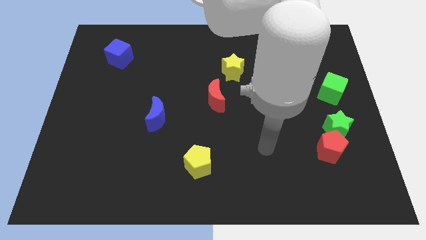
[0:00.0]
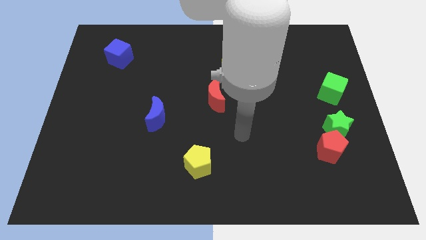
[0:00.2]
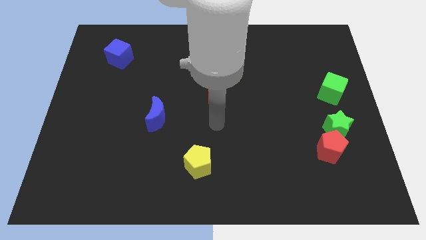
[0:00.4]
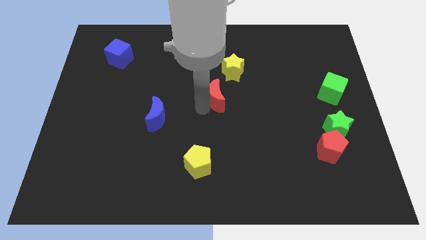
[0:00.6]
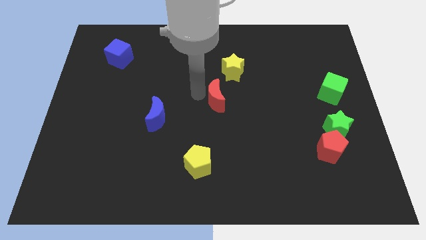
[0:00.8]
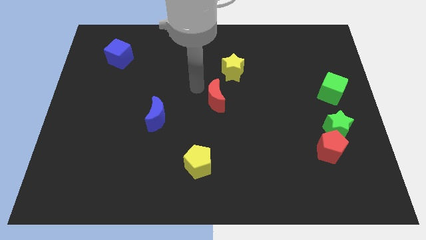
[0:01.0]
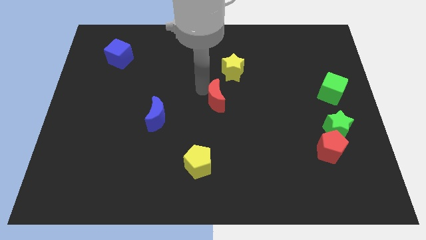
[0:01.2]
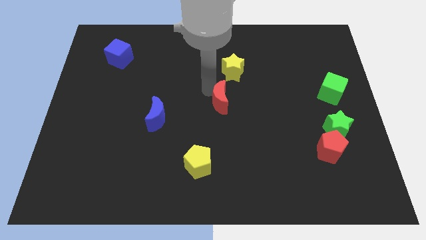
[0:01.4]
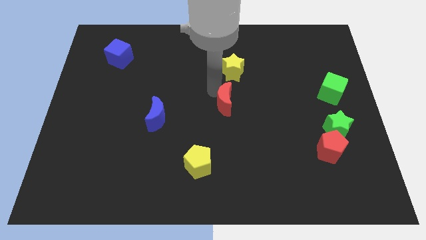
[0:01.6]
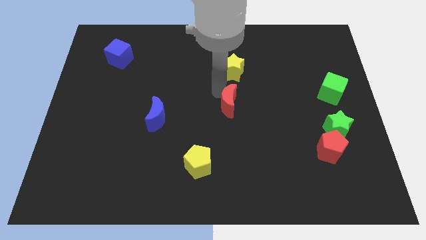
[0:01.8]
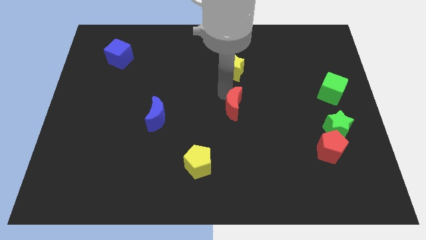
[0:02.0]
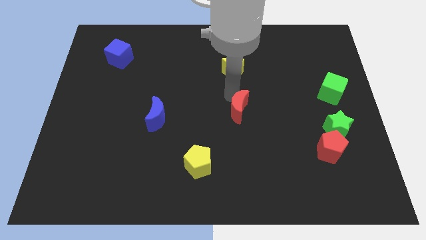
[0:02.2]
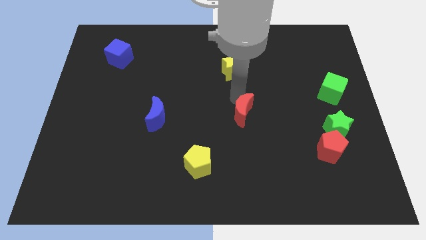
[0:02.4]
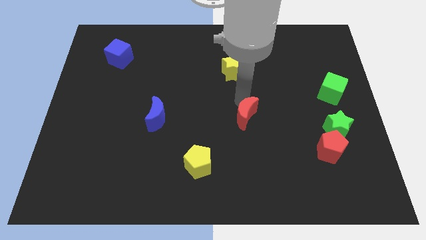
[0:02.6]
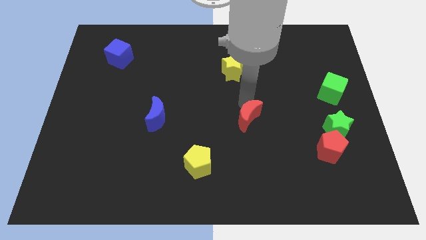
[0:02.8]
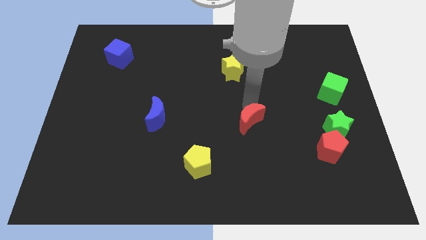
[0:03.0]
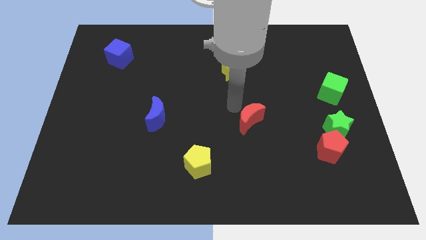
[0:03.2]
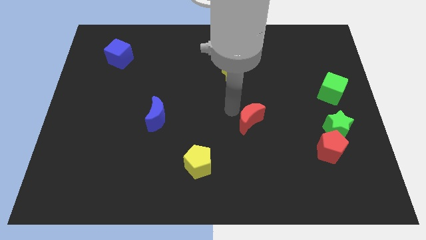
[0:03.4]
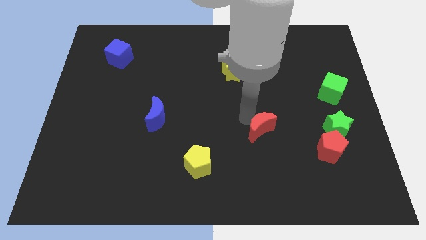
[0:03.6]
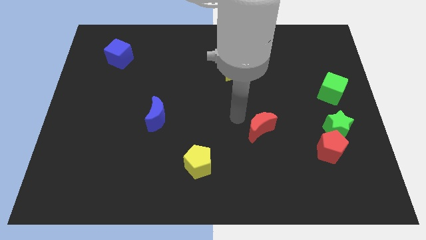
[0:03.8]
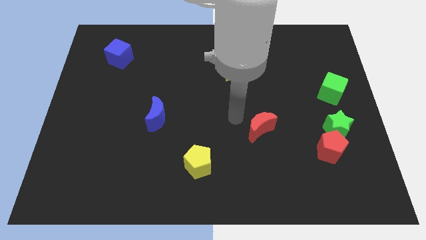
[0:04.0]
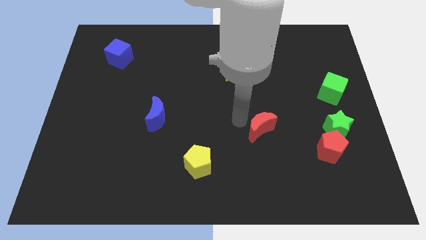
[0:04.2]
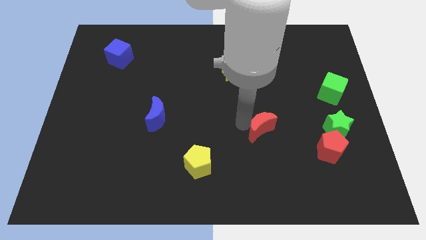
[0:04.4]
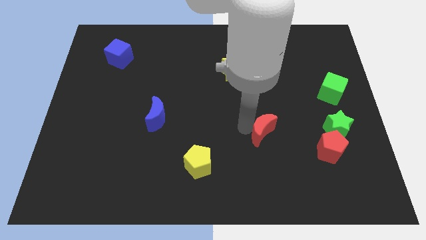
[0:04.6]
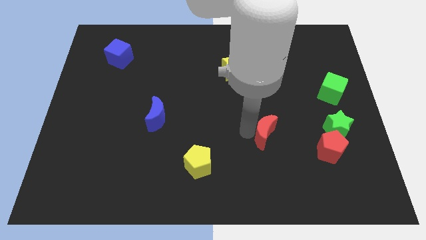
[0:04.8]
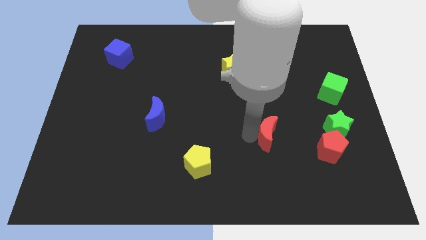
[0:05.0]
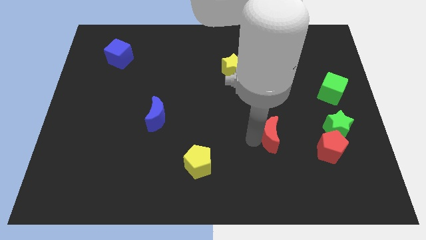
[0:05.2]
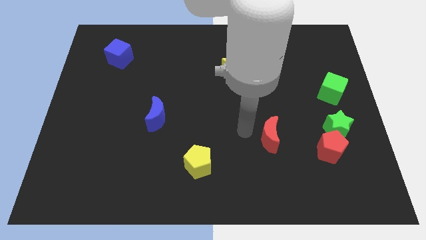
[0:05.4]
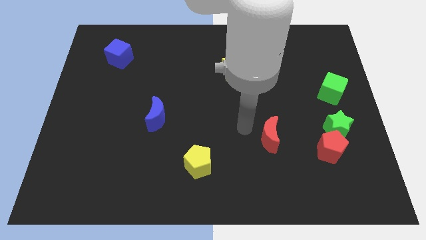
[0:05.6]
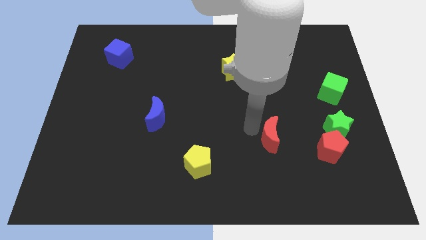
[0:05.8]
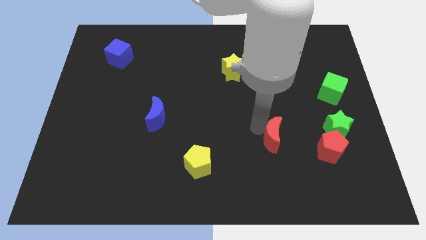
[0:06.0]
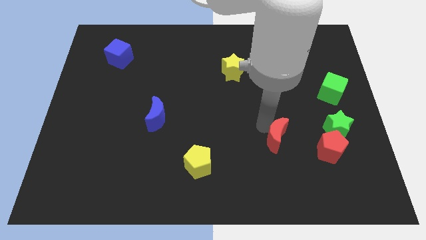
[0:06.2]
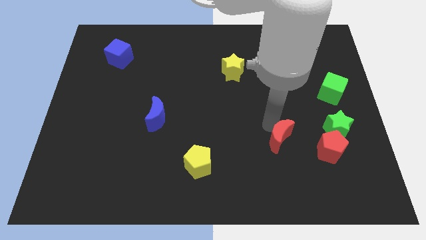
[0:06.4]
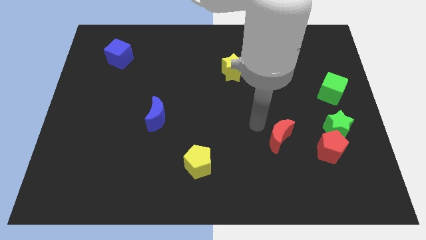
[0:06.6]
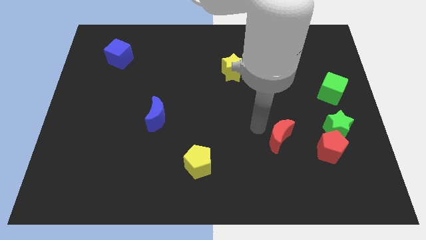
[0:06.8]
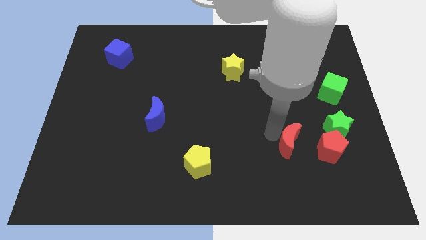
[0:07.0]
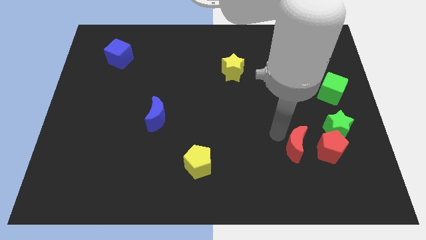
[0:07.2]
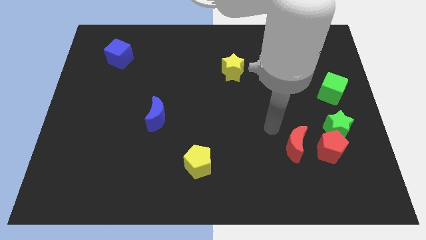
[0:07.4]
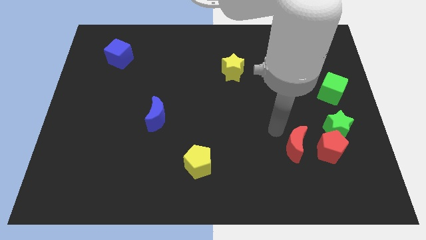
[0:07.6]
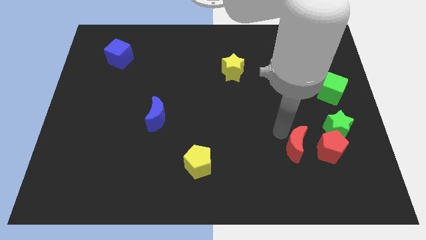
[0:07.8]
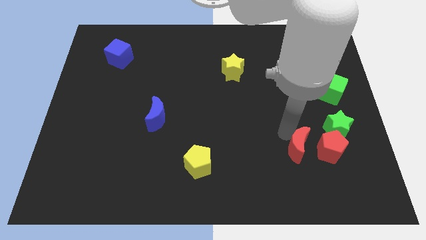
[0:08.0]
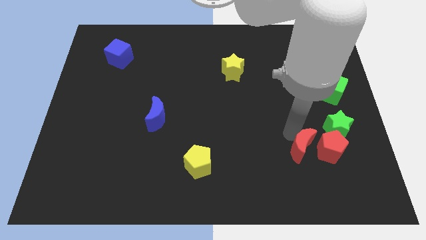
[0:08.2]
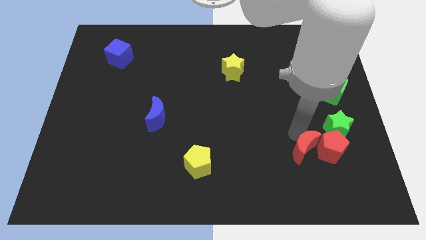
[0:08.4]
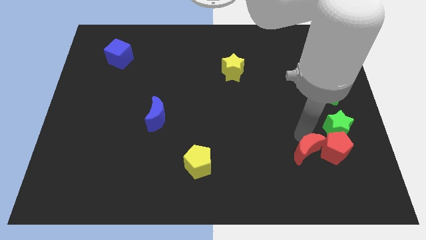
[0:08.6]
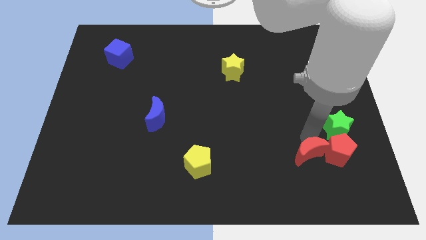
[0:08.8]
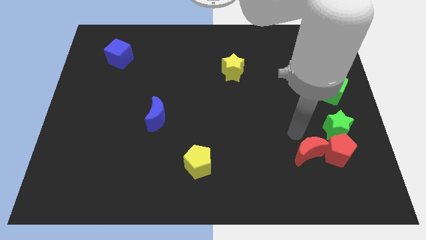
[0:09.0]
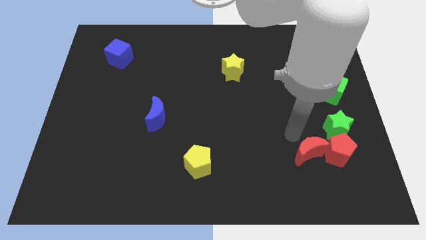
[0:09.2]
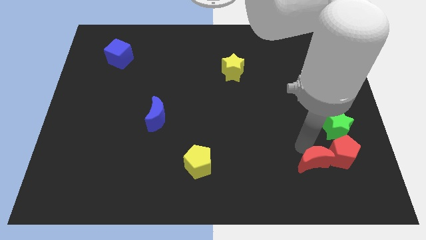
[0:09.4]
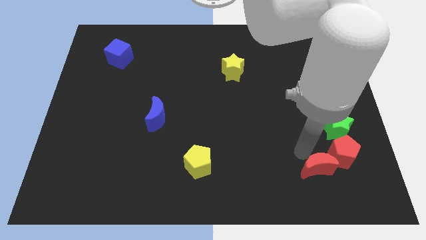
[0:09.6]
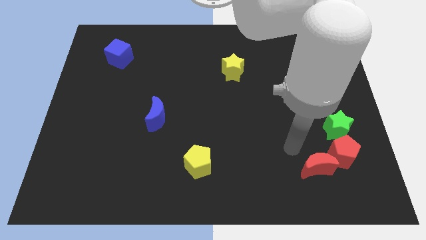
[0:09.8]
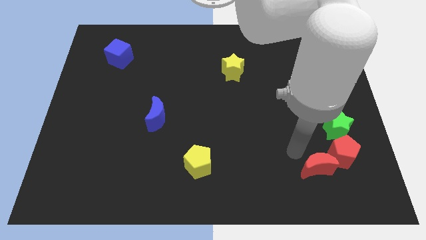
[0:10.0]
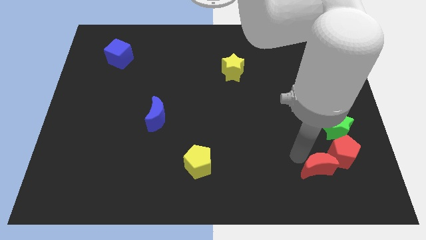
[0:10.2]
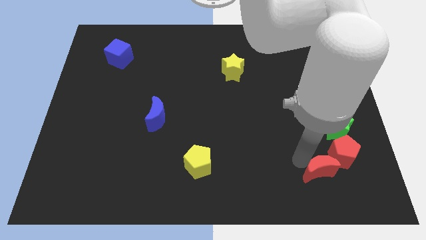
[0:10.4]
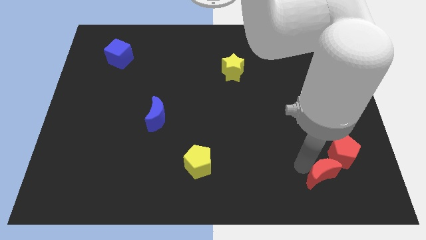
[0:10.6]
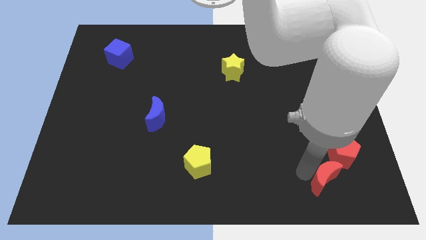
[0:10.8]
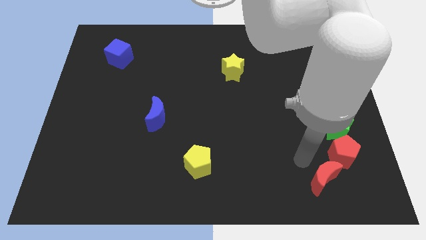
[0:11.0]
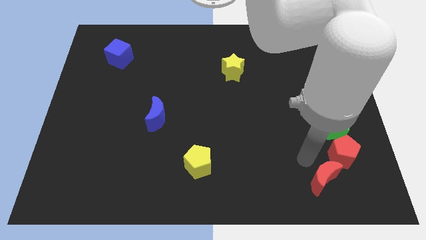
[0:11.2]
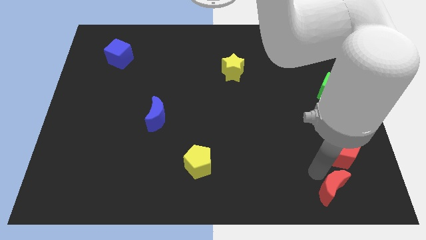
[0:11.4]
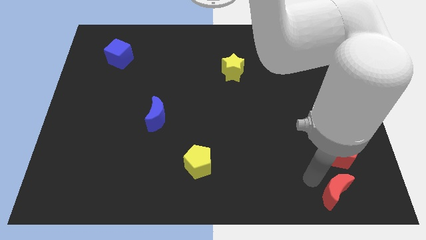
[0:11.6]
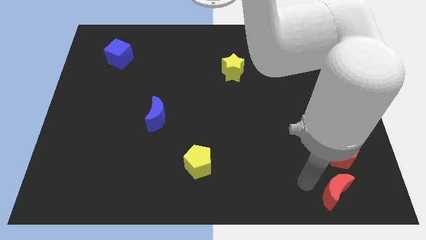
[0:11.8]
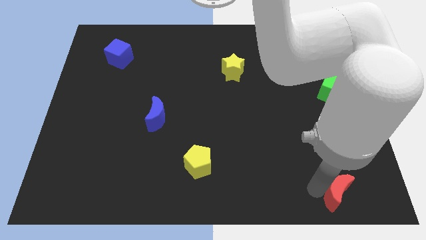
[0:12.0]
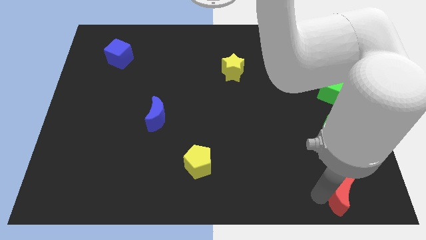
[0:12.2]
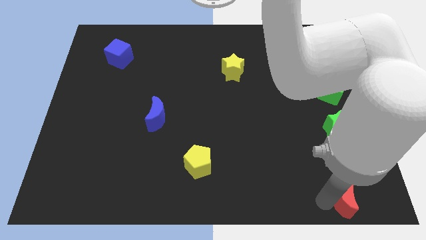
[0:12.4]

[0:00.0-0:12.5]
push the red moon to the bottom right of the board

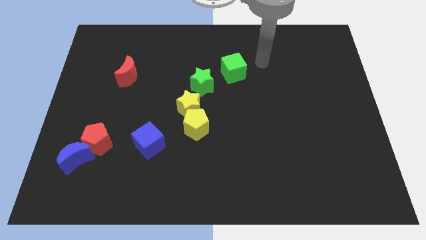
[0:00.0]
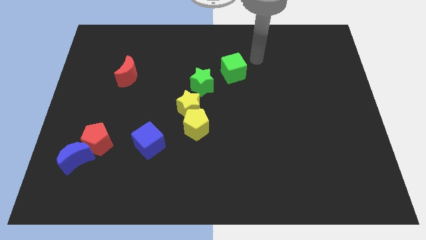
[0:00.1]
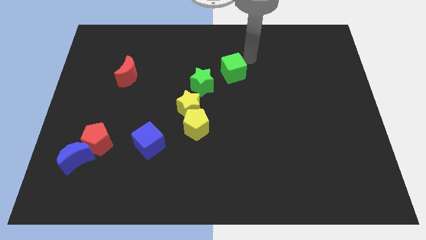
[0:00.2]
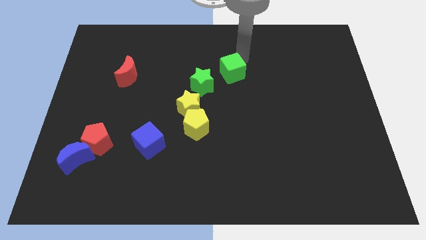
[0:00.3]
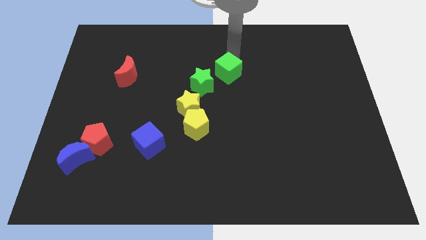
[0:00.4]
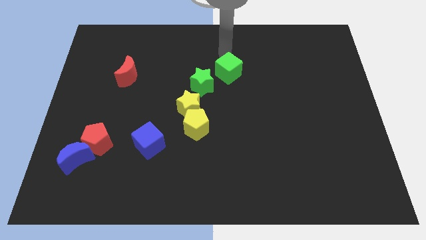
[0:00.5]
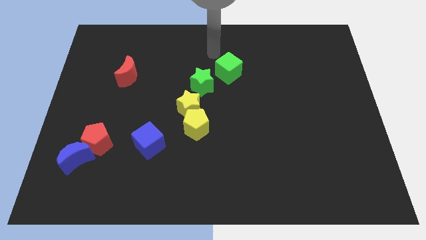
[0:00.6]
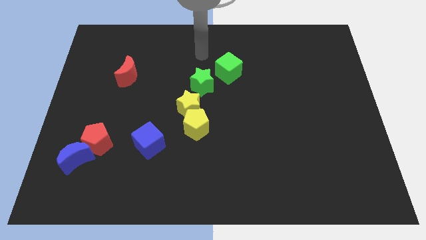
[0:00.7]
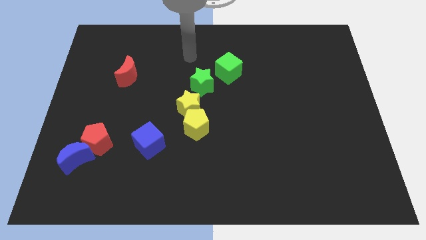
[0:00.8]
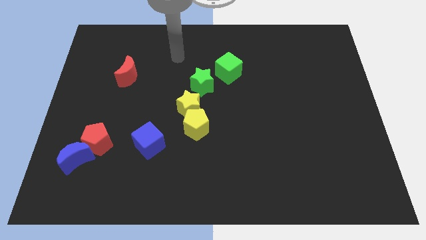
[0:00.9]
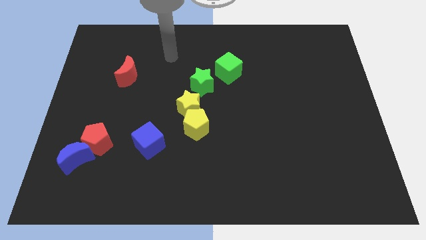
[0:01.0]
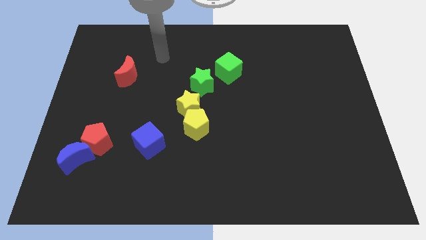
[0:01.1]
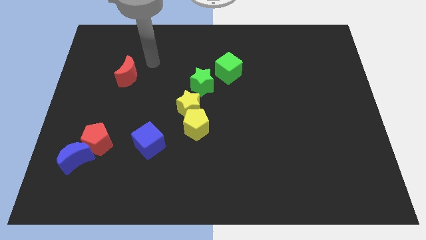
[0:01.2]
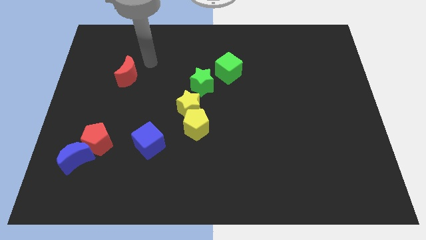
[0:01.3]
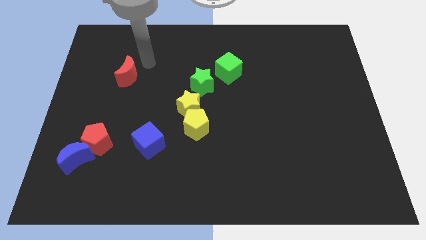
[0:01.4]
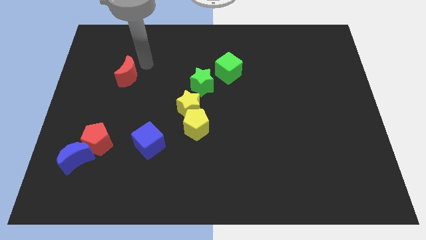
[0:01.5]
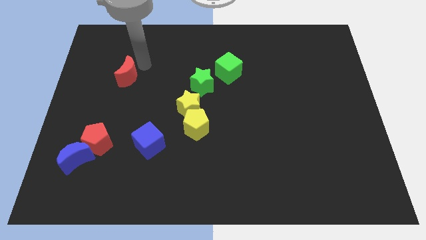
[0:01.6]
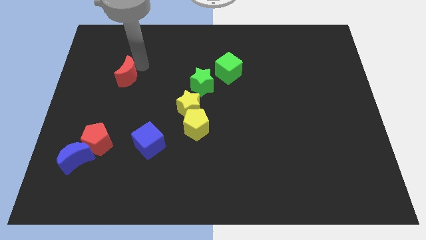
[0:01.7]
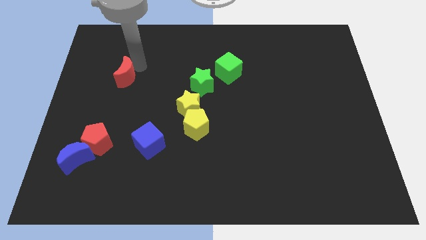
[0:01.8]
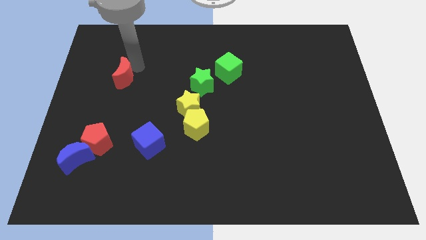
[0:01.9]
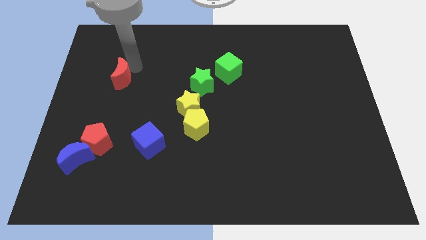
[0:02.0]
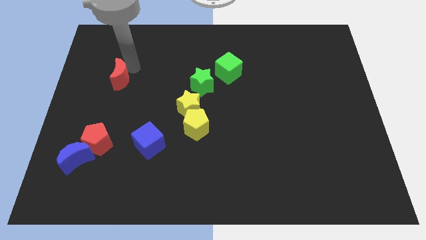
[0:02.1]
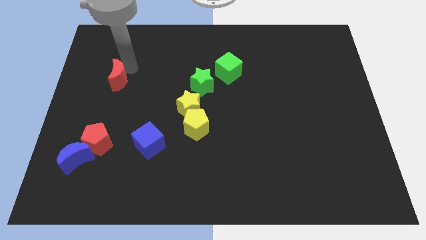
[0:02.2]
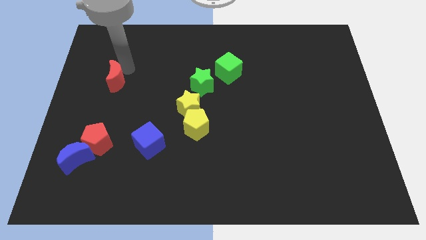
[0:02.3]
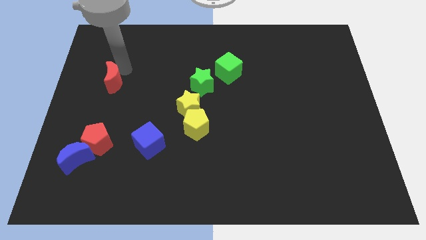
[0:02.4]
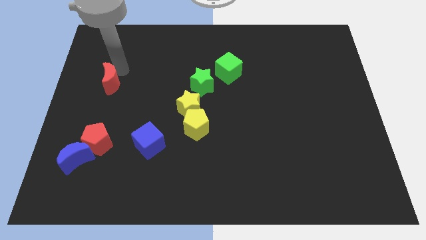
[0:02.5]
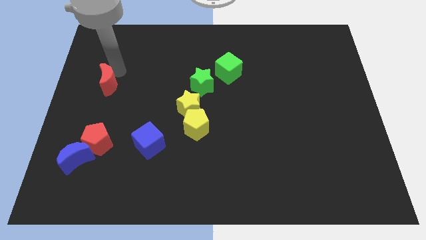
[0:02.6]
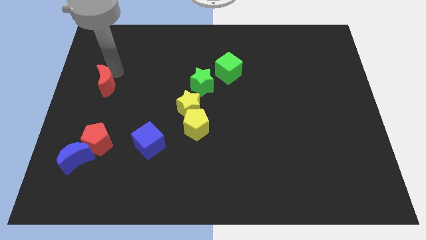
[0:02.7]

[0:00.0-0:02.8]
move the red moon to the left side
